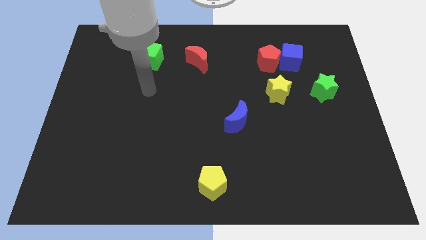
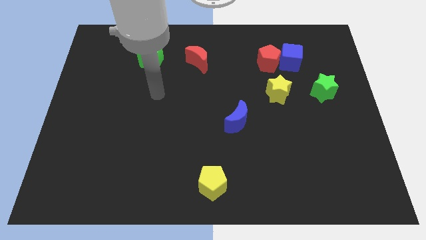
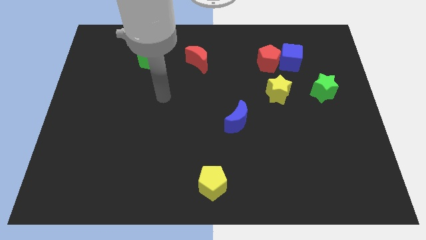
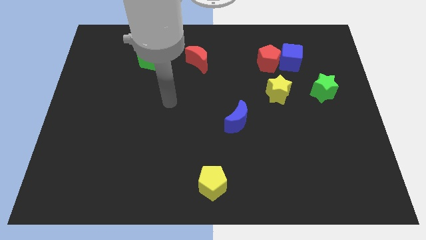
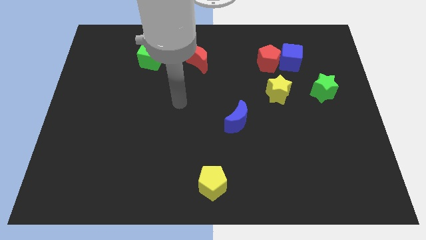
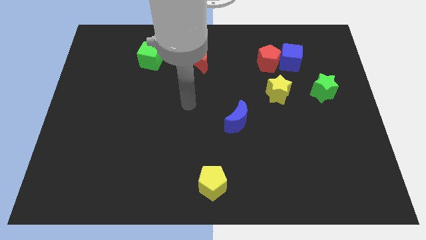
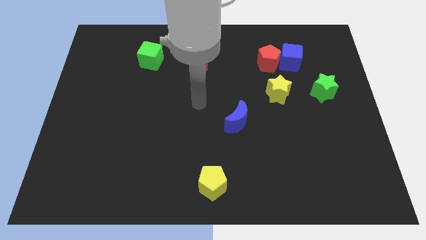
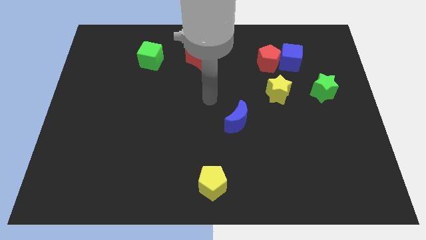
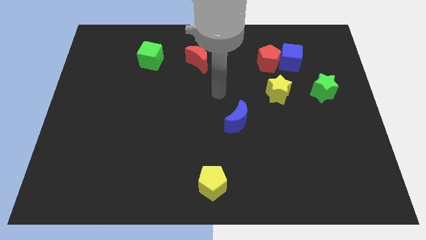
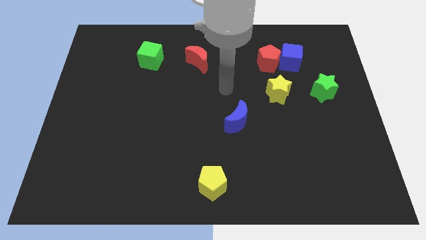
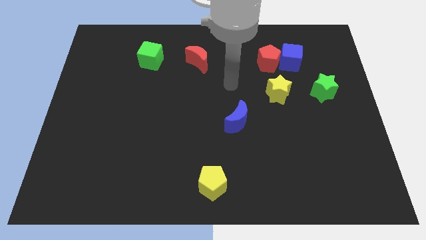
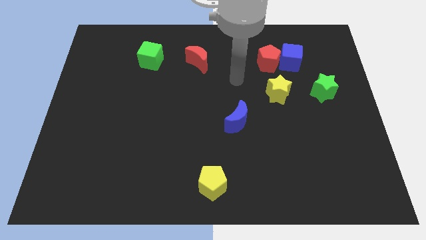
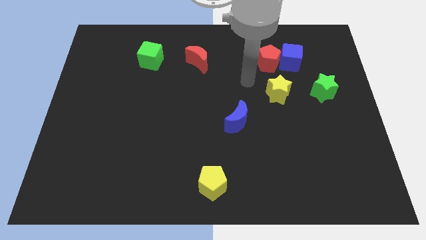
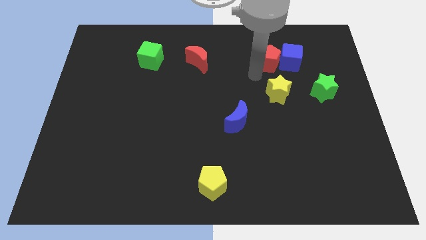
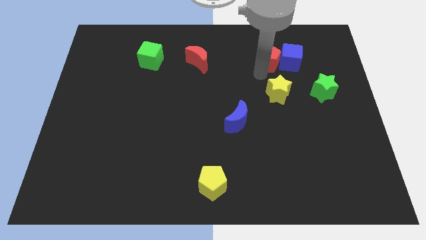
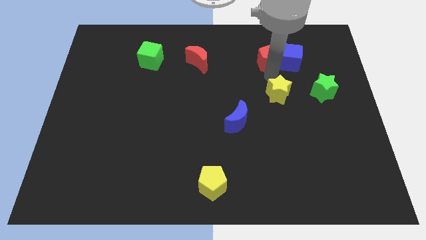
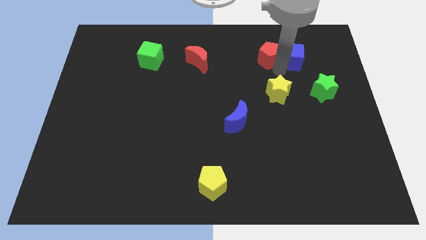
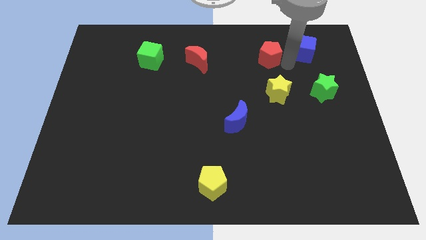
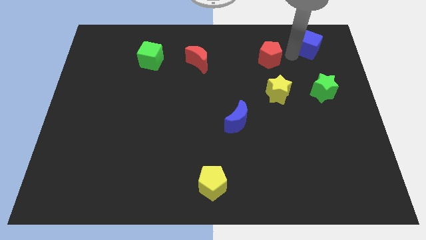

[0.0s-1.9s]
pull the red pentagon apart from the blue cube

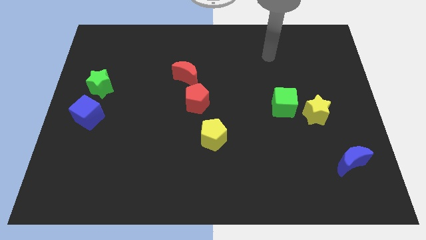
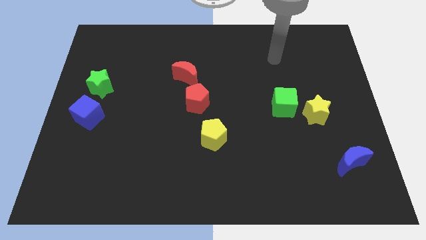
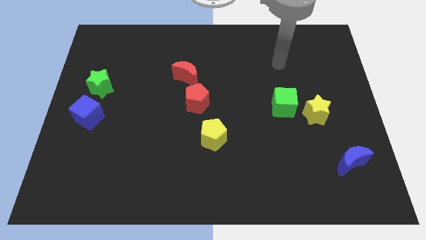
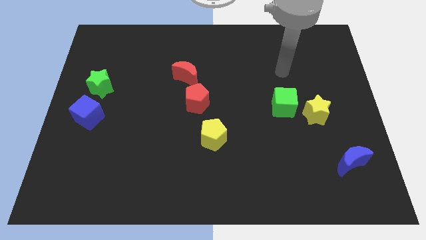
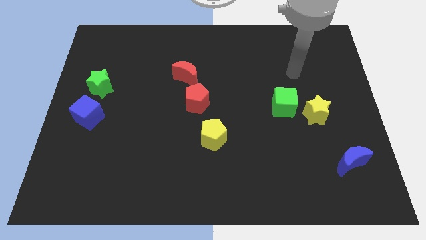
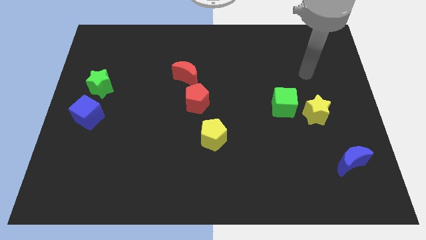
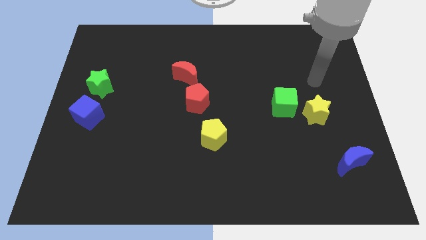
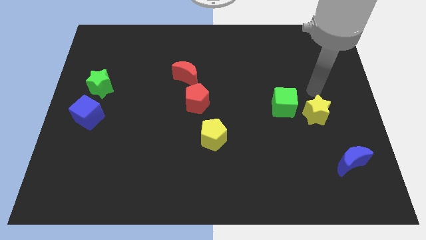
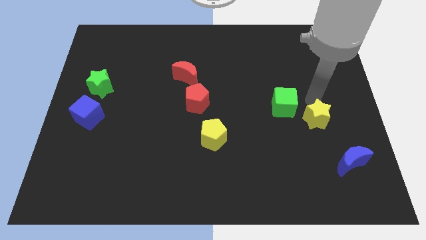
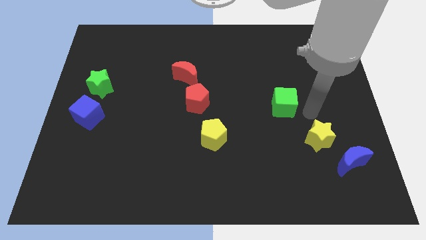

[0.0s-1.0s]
pull the green cube apart from the yellow star

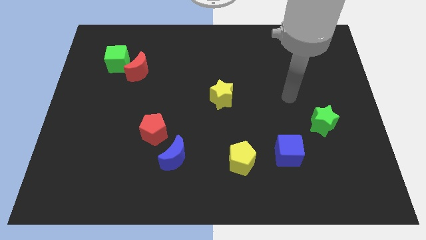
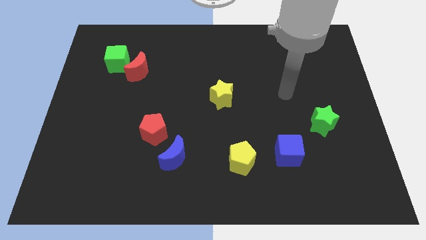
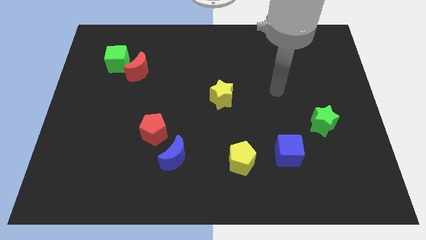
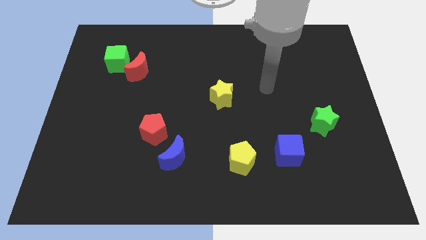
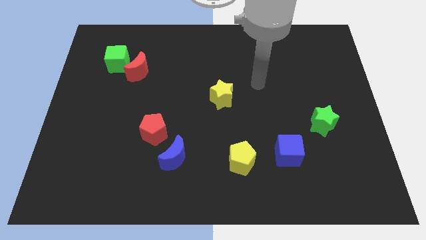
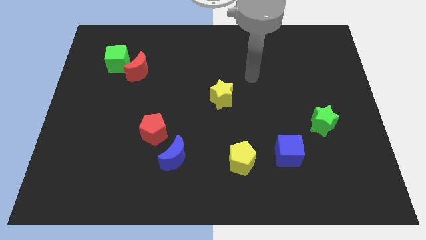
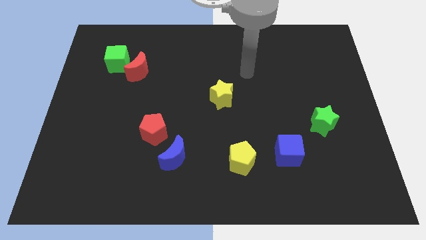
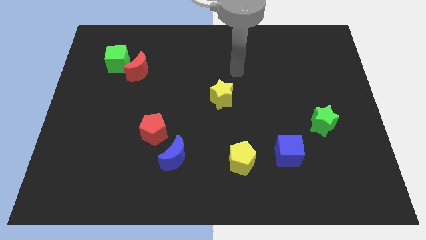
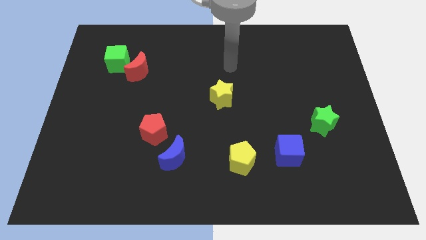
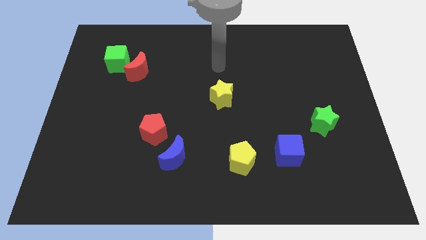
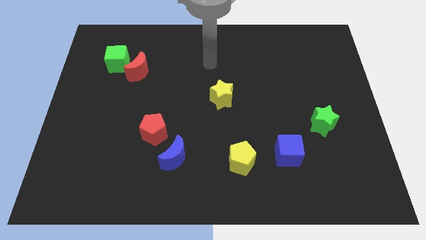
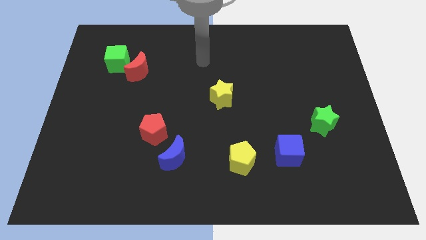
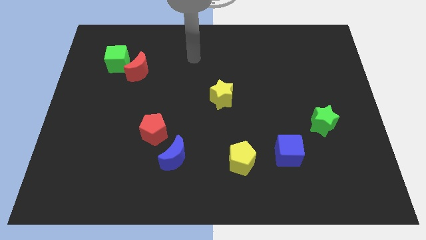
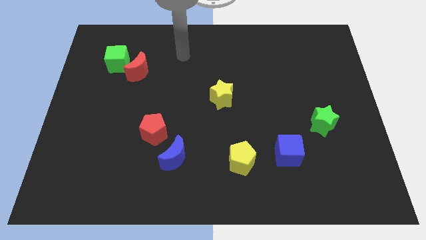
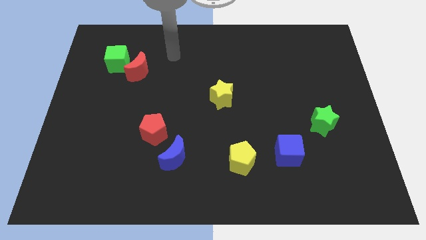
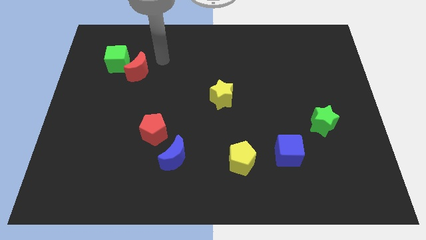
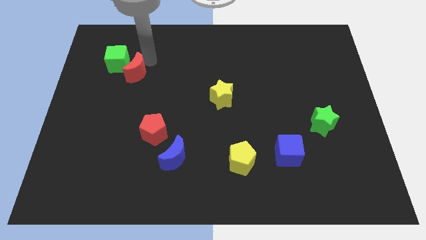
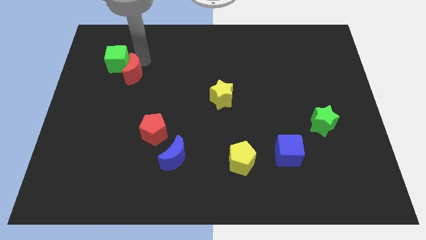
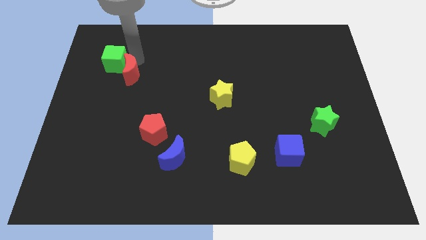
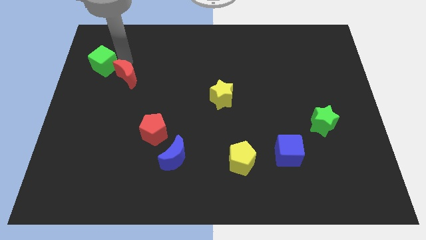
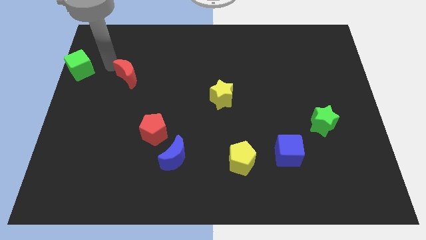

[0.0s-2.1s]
pull the red moon apart from the green cube

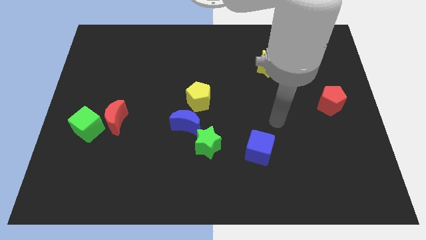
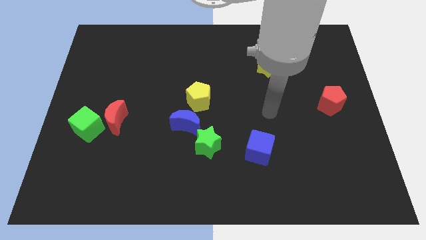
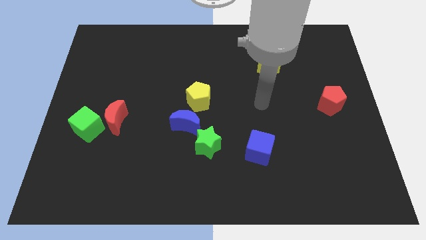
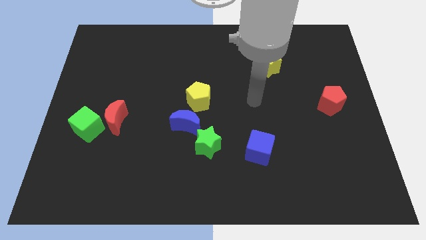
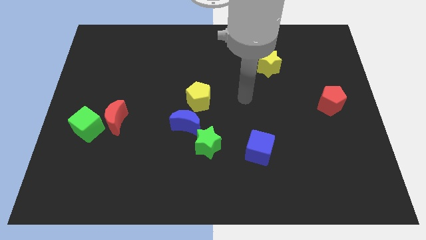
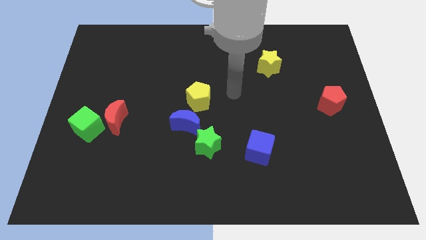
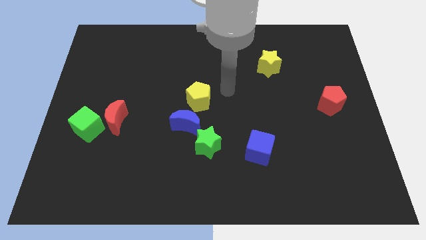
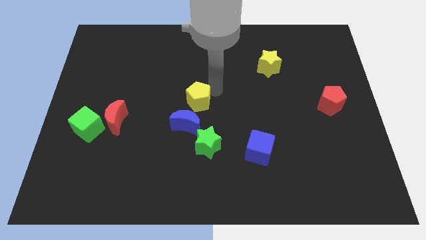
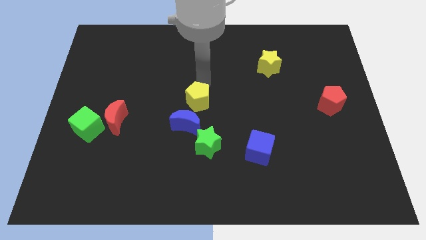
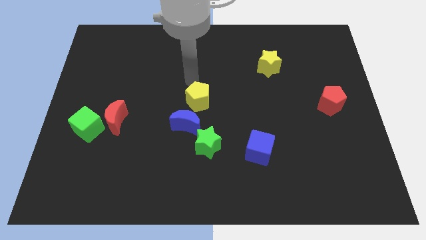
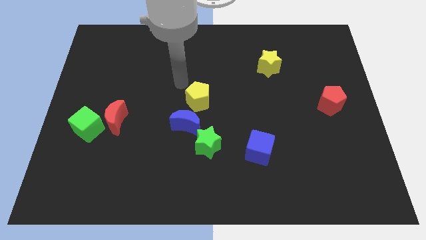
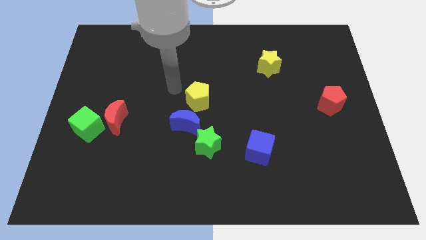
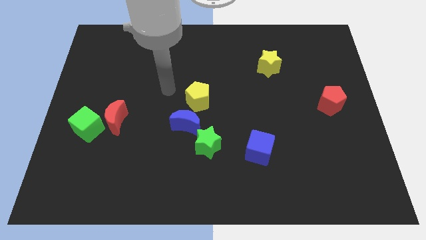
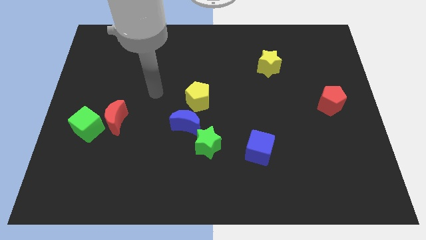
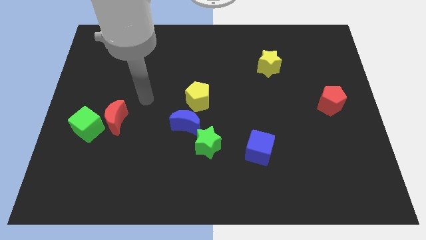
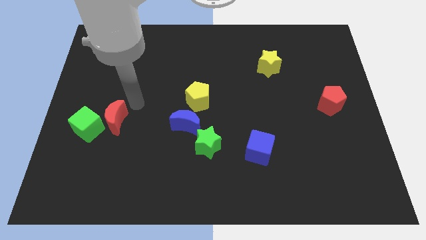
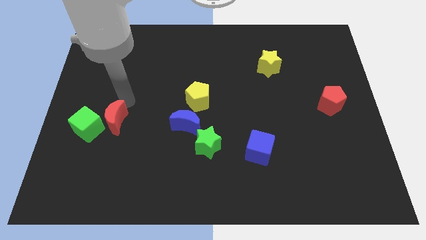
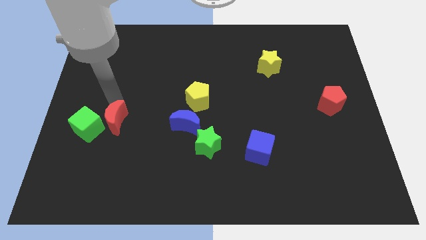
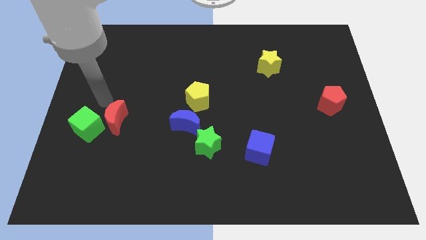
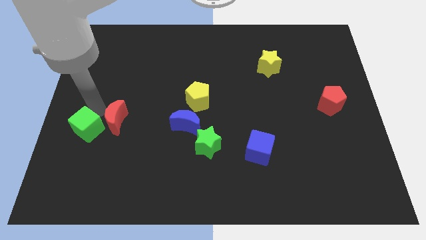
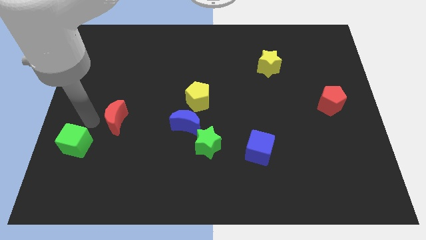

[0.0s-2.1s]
separate the red moon from the green cube

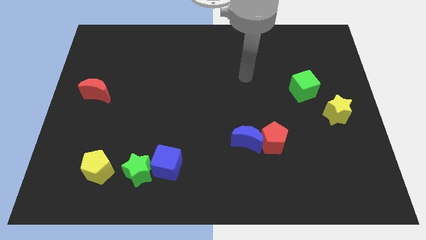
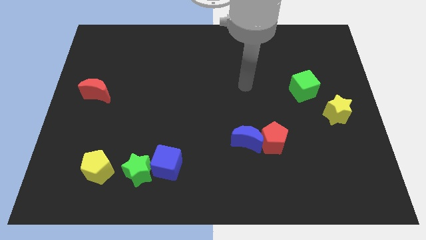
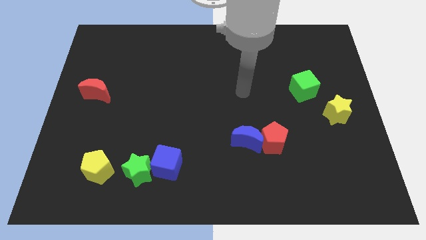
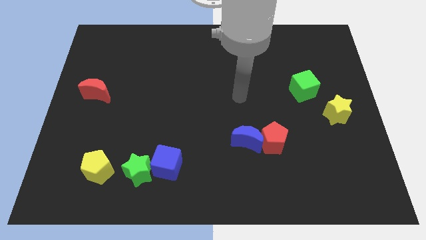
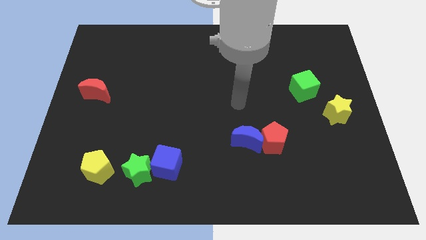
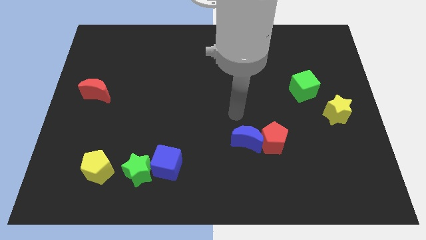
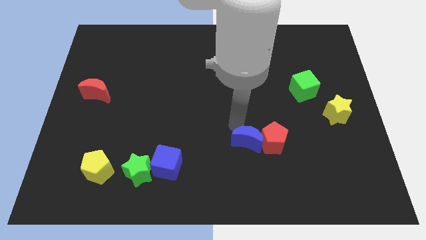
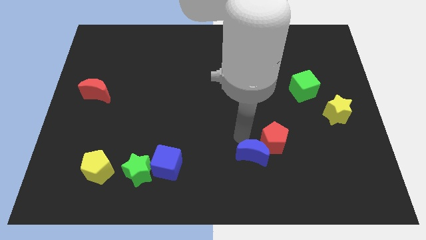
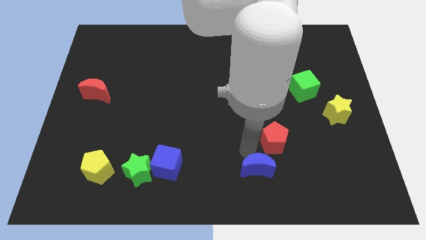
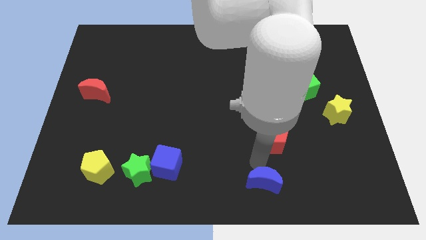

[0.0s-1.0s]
pull the red pentagon apart from the blue moon

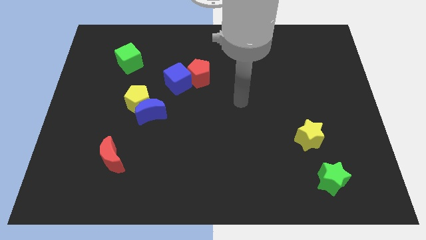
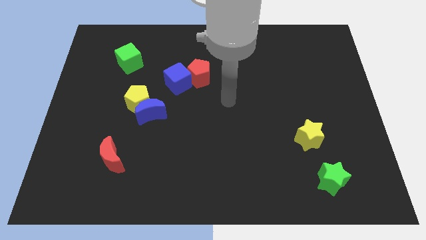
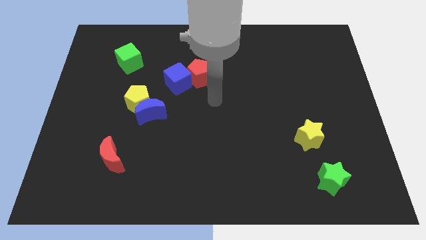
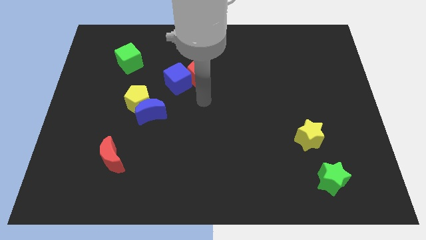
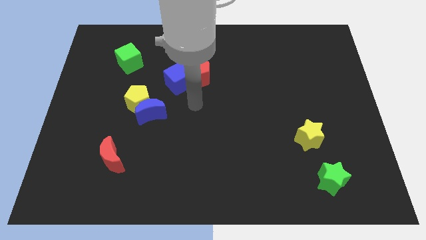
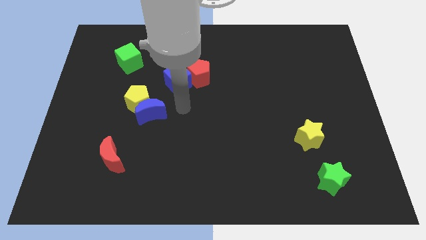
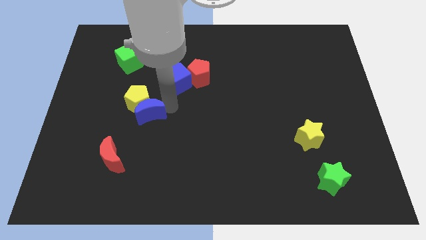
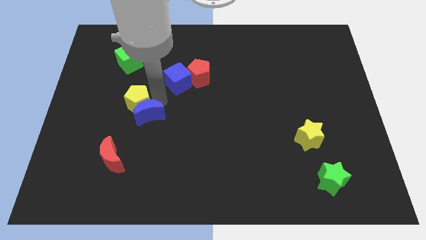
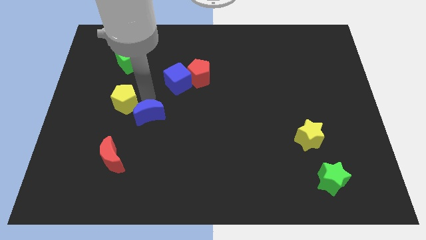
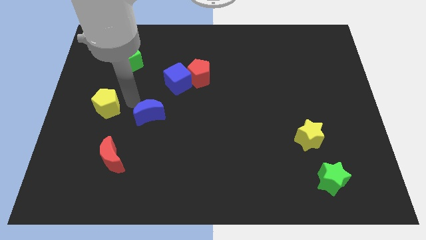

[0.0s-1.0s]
move the blue moon away from the yellow pentagon

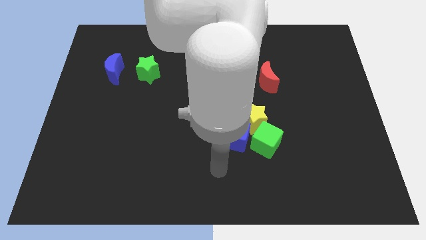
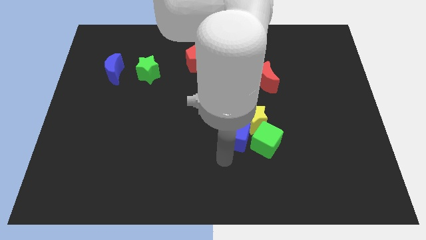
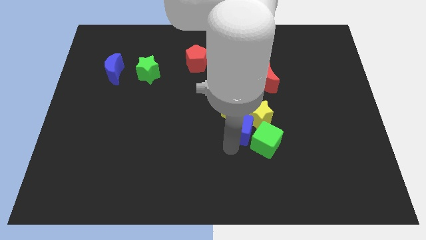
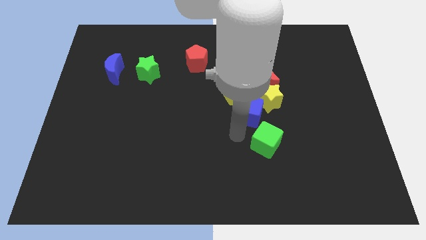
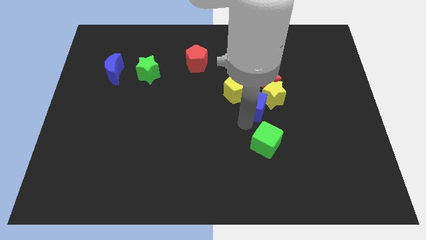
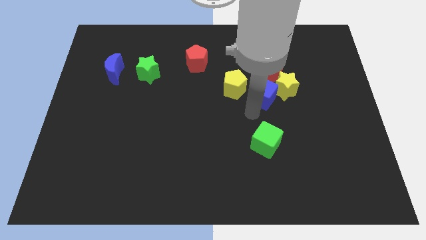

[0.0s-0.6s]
move the yellow star away from the group
